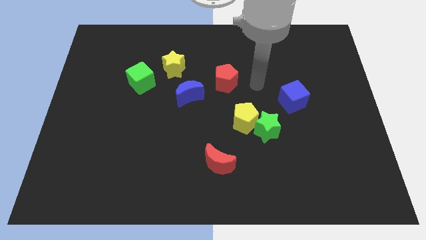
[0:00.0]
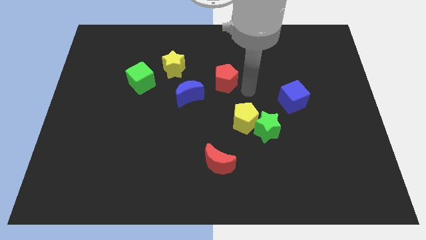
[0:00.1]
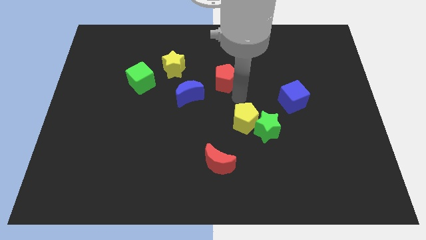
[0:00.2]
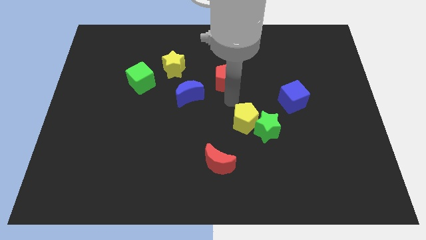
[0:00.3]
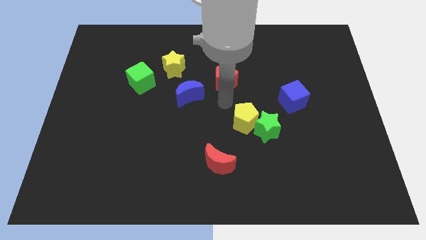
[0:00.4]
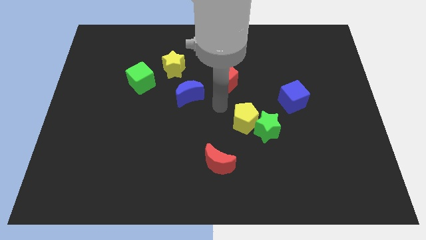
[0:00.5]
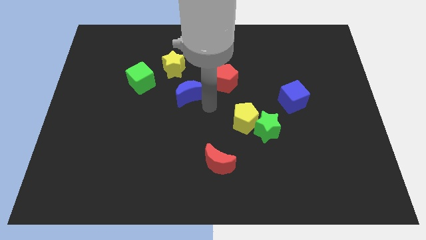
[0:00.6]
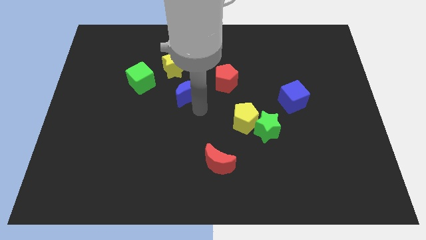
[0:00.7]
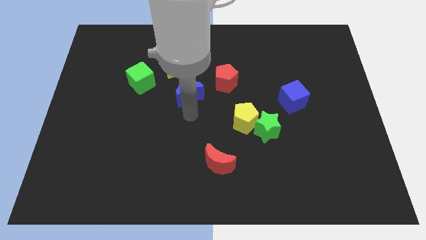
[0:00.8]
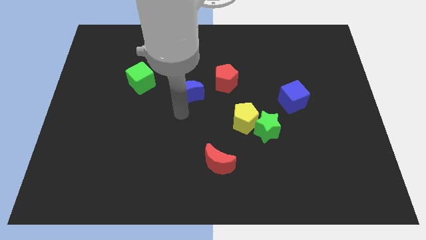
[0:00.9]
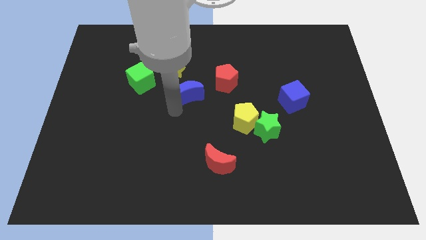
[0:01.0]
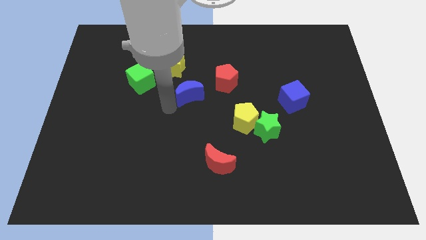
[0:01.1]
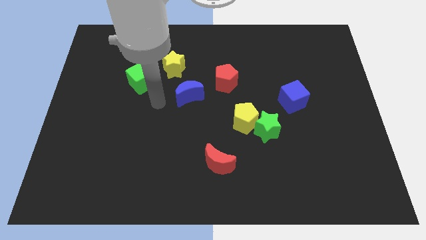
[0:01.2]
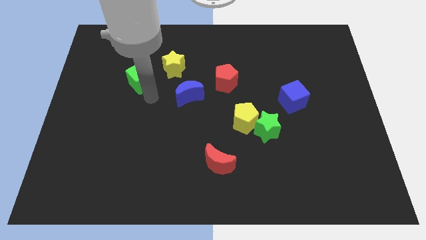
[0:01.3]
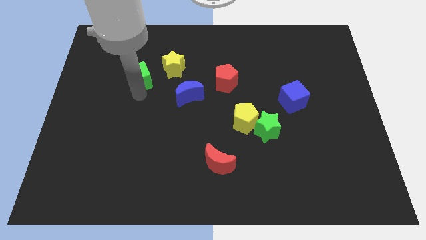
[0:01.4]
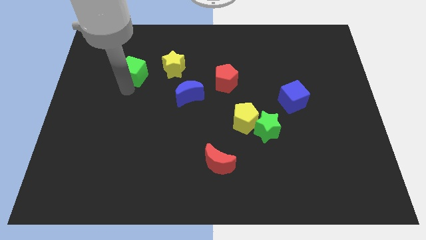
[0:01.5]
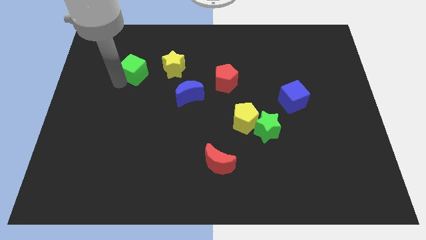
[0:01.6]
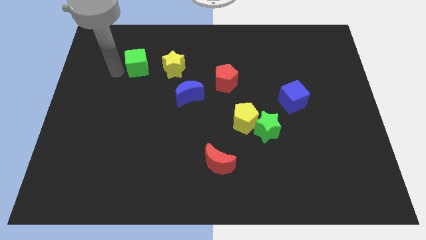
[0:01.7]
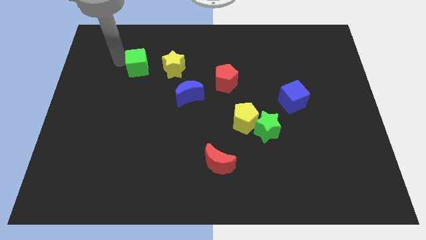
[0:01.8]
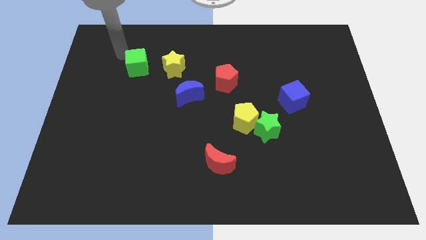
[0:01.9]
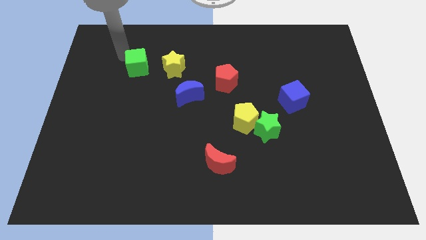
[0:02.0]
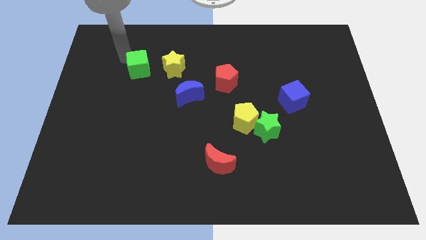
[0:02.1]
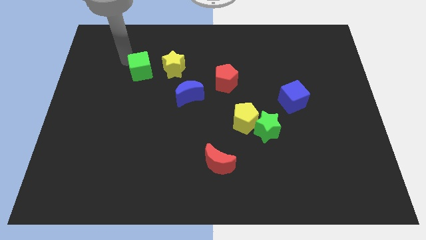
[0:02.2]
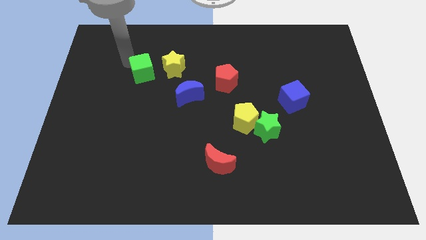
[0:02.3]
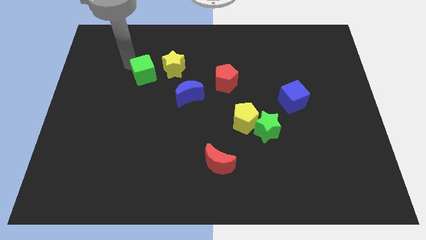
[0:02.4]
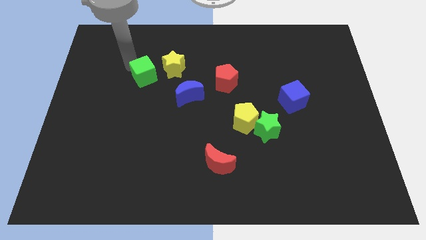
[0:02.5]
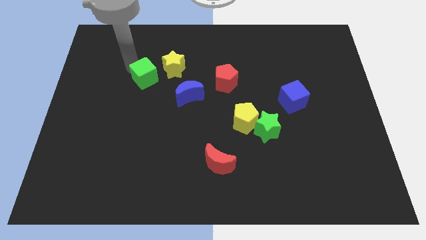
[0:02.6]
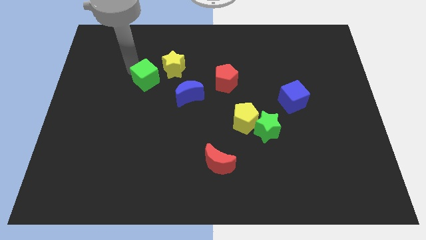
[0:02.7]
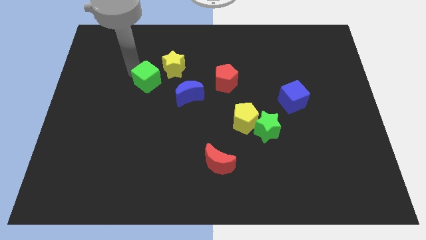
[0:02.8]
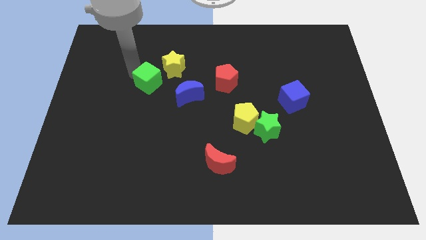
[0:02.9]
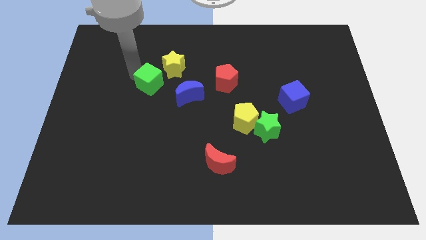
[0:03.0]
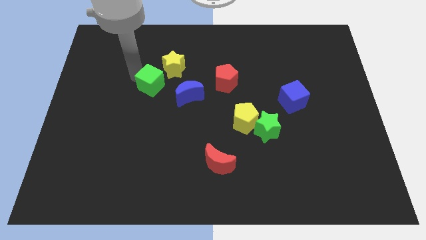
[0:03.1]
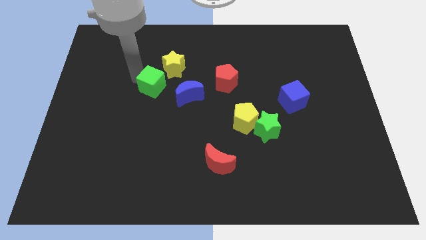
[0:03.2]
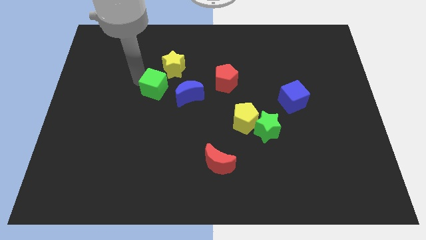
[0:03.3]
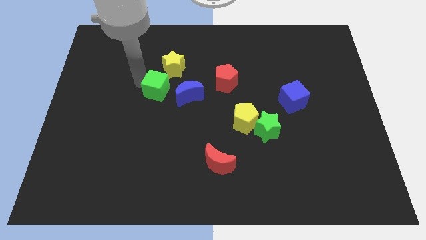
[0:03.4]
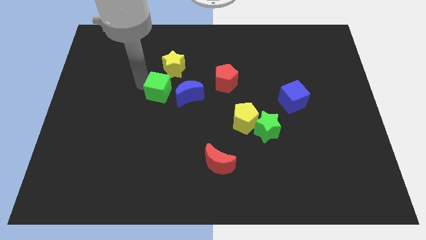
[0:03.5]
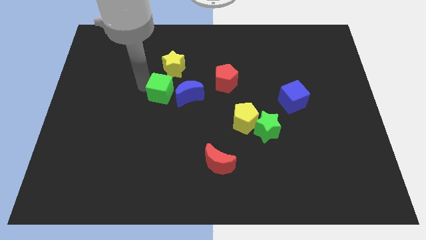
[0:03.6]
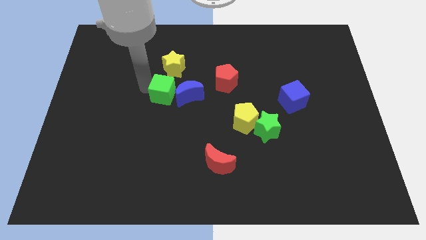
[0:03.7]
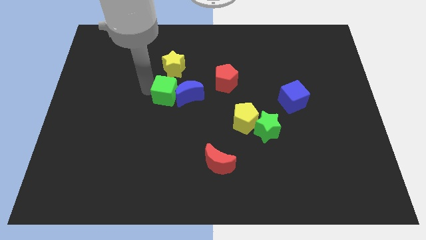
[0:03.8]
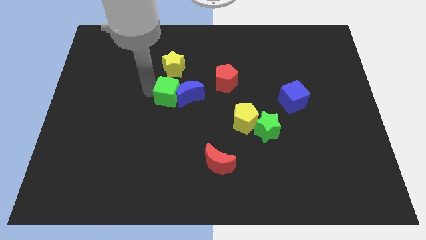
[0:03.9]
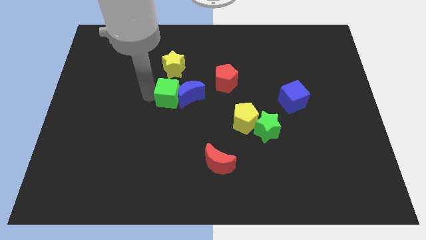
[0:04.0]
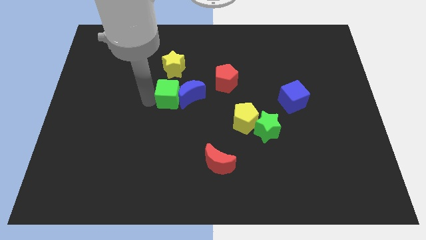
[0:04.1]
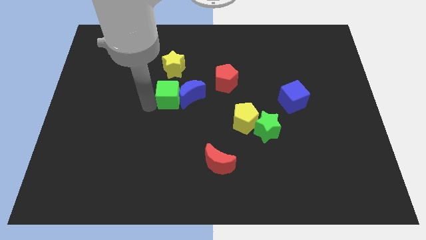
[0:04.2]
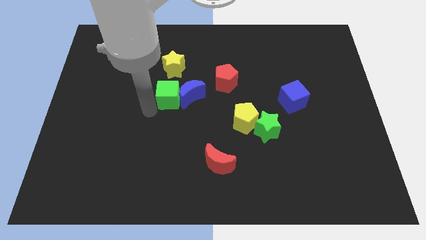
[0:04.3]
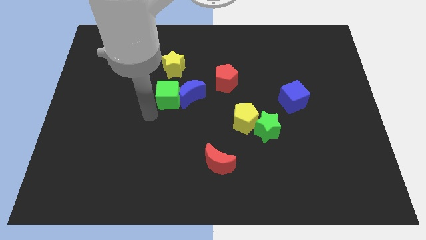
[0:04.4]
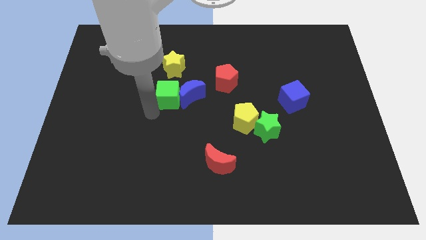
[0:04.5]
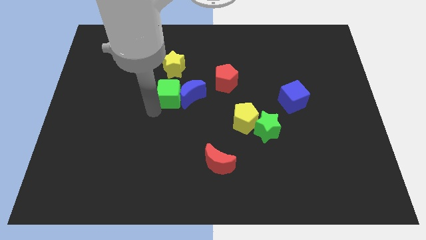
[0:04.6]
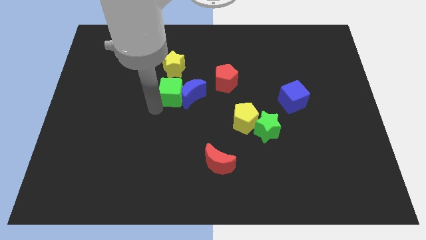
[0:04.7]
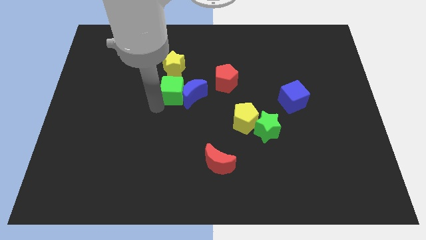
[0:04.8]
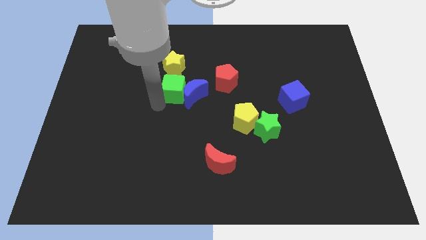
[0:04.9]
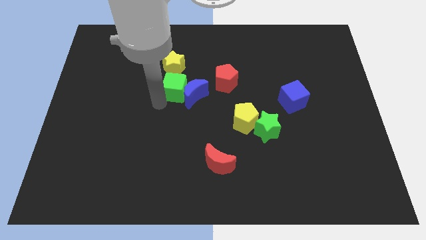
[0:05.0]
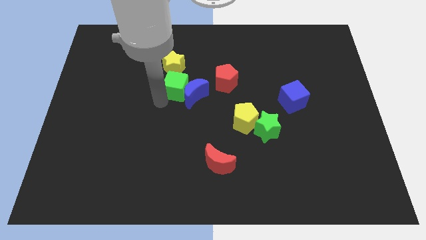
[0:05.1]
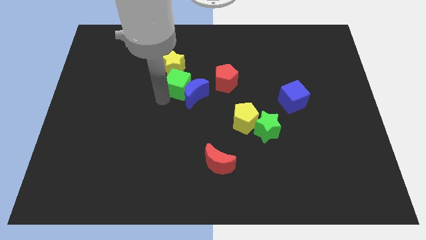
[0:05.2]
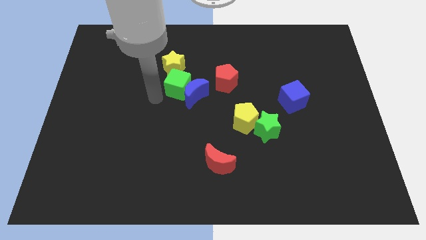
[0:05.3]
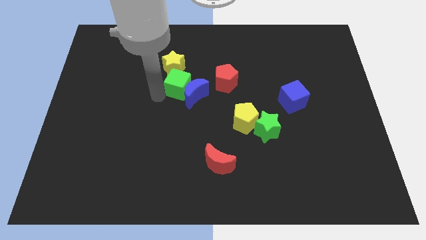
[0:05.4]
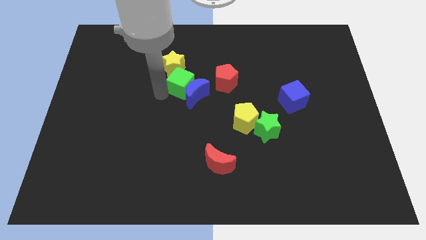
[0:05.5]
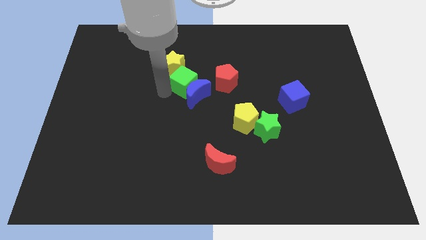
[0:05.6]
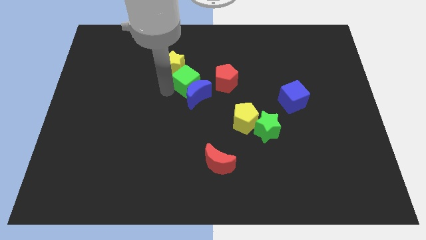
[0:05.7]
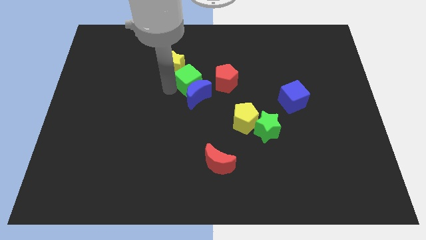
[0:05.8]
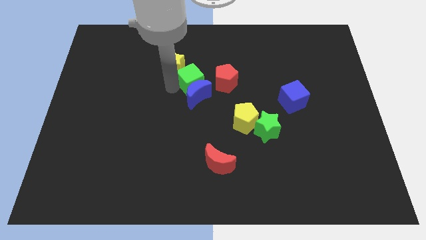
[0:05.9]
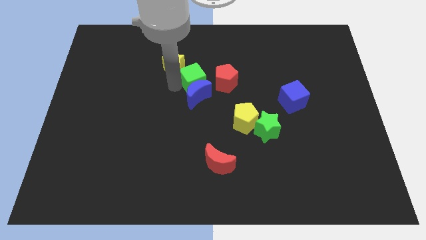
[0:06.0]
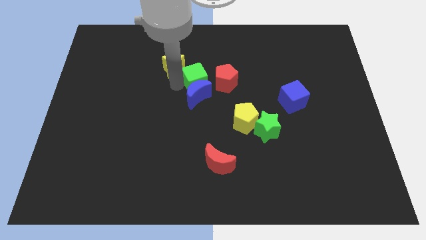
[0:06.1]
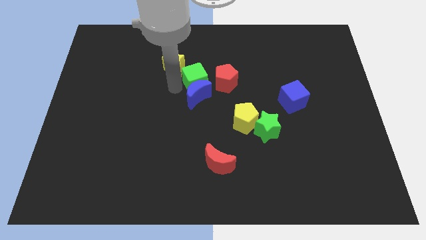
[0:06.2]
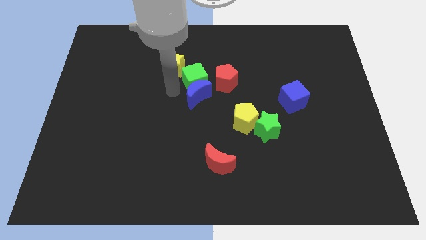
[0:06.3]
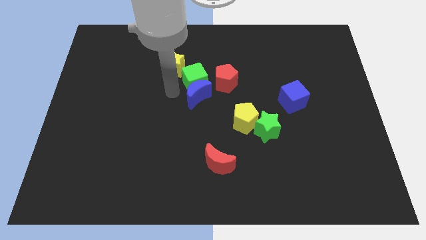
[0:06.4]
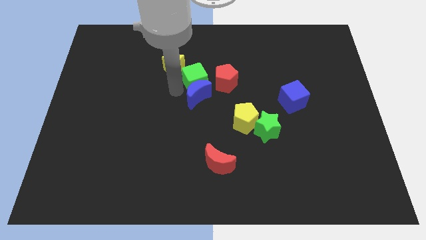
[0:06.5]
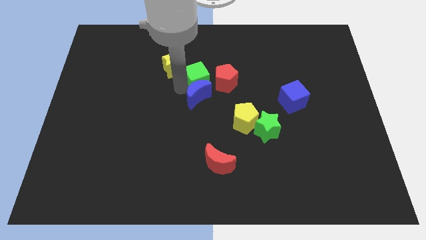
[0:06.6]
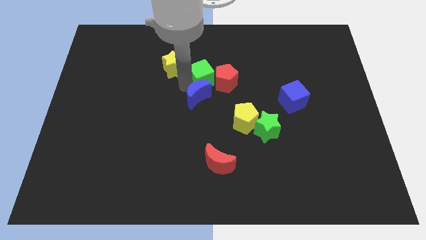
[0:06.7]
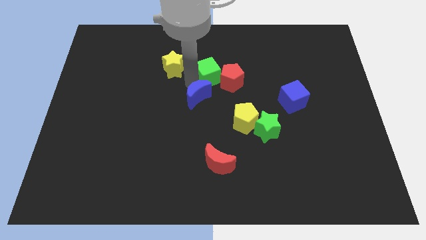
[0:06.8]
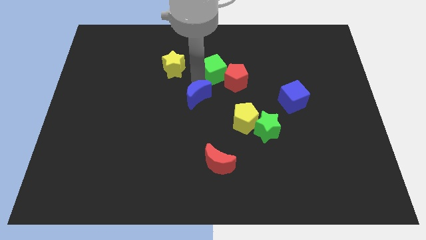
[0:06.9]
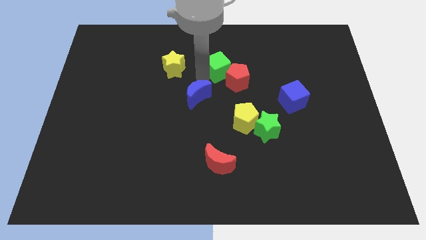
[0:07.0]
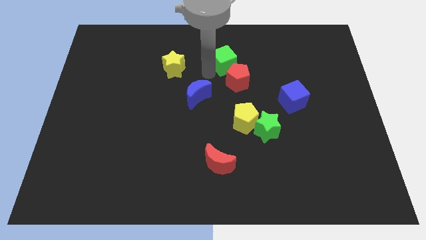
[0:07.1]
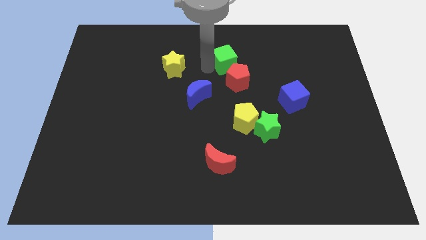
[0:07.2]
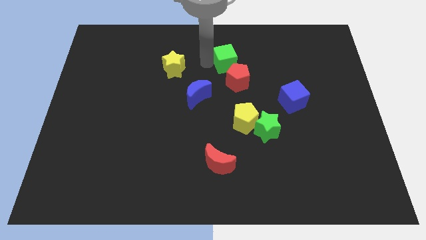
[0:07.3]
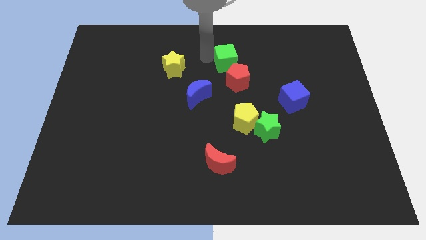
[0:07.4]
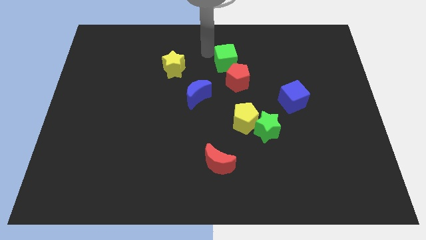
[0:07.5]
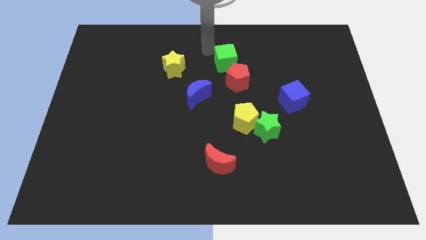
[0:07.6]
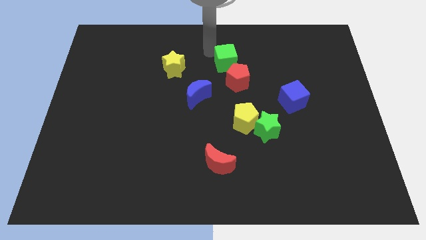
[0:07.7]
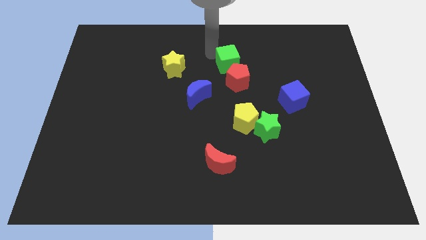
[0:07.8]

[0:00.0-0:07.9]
move the green cube right

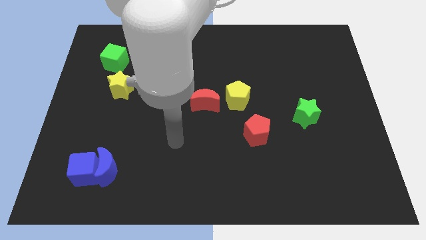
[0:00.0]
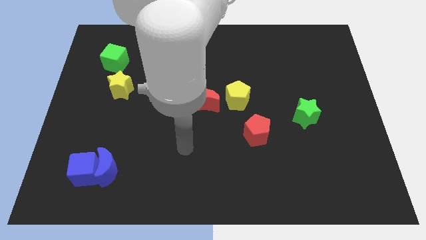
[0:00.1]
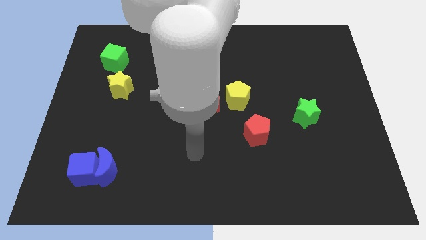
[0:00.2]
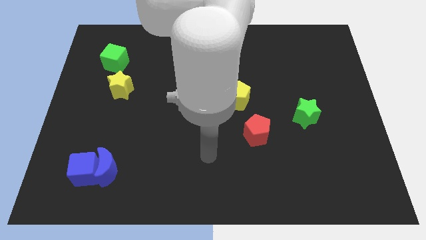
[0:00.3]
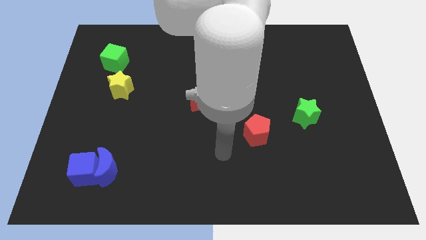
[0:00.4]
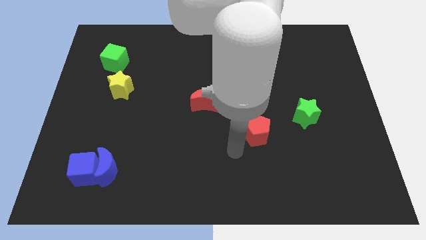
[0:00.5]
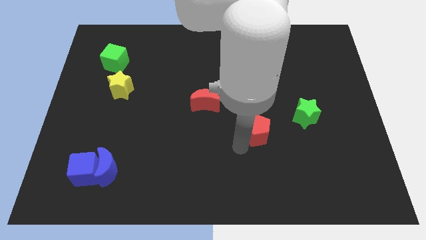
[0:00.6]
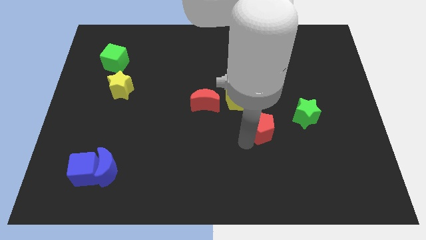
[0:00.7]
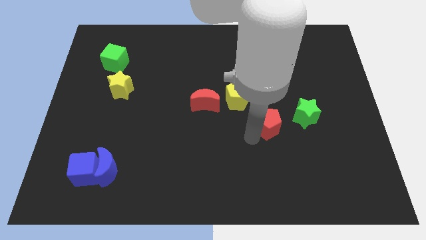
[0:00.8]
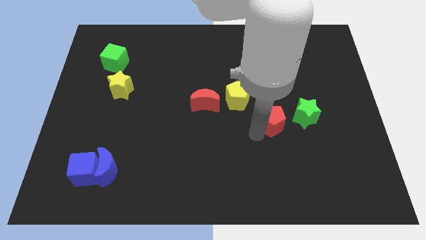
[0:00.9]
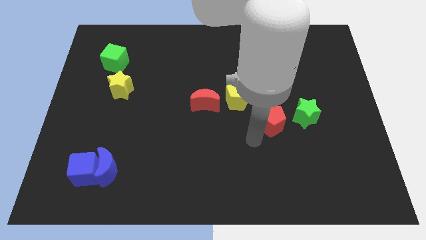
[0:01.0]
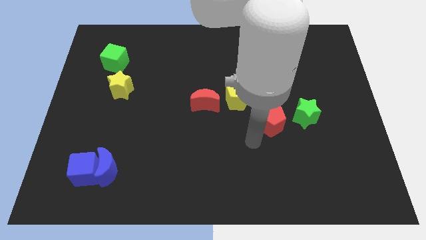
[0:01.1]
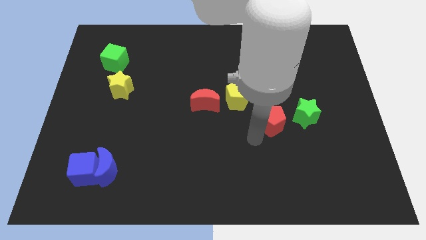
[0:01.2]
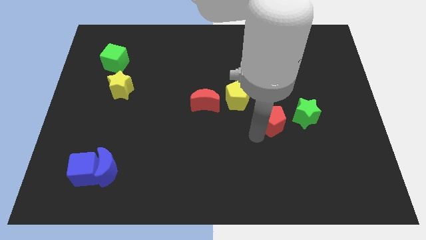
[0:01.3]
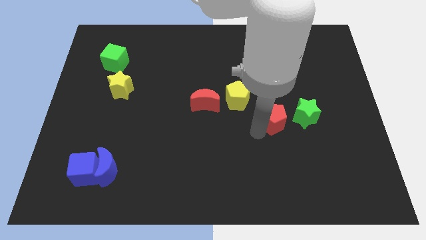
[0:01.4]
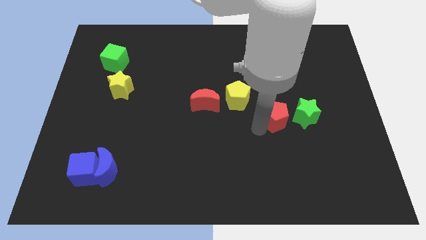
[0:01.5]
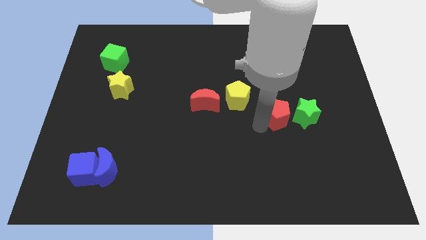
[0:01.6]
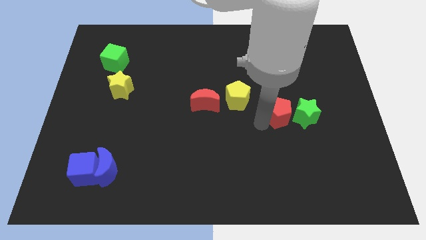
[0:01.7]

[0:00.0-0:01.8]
slightly push the red pentagon upwards and right diagonally
